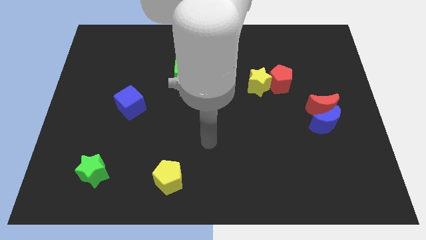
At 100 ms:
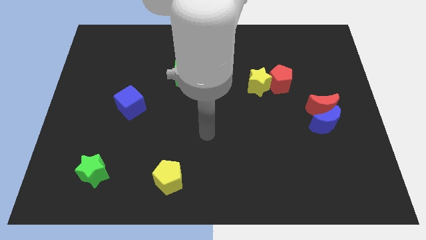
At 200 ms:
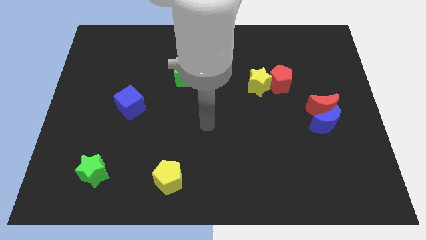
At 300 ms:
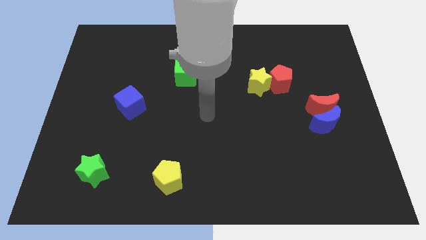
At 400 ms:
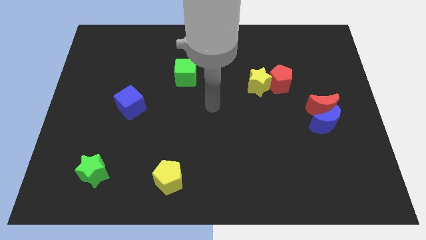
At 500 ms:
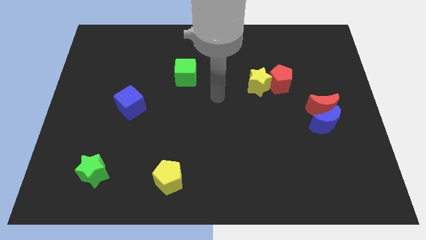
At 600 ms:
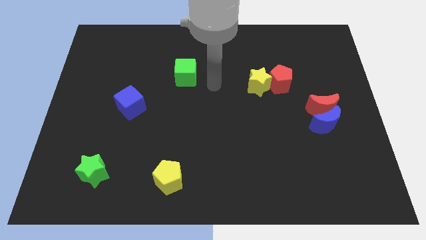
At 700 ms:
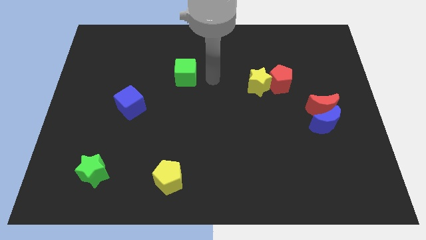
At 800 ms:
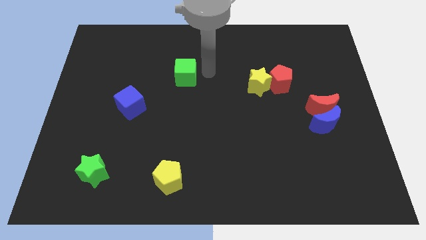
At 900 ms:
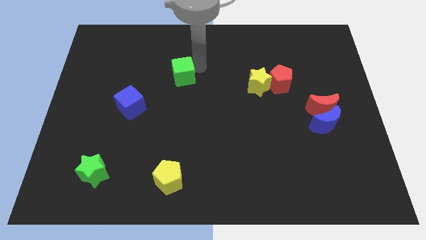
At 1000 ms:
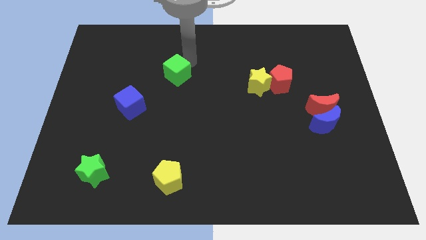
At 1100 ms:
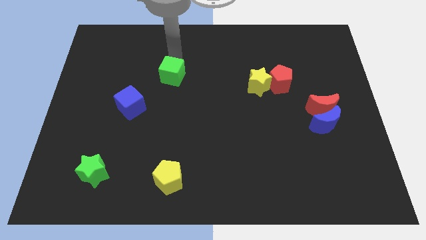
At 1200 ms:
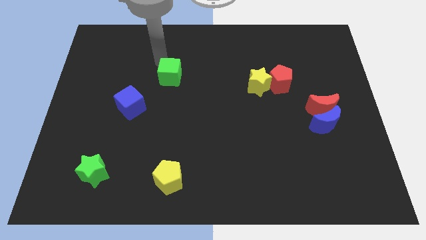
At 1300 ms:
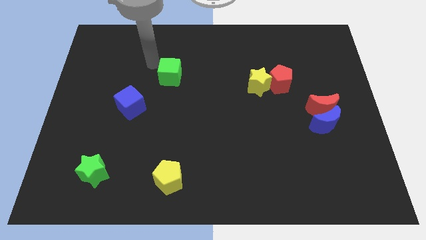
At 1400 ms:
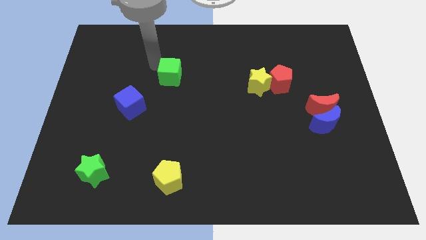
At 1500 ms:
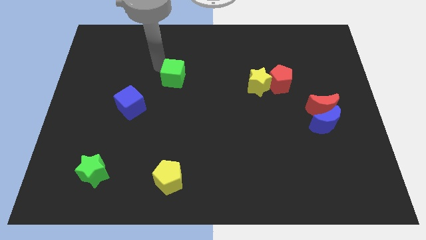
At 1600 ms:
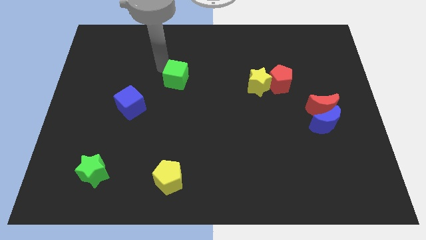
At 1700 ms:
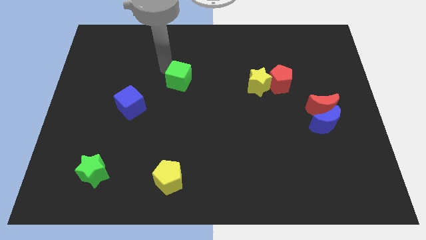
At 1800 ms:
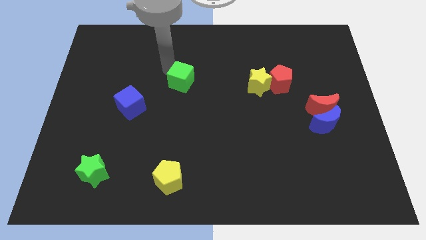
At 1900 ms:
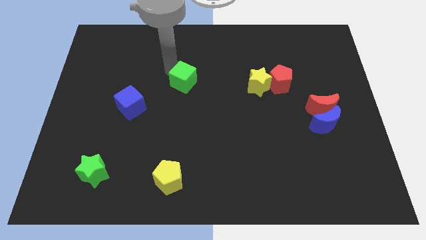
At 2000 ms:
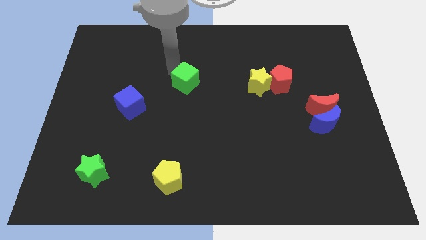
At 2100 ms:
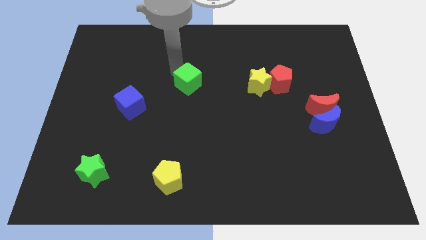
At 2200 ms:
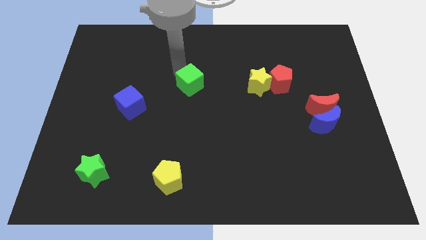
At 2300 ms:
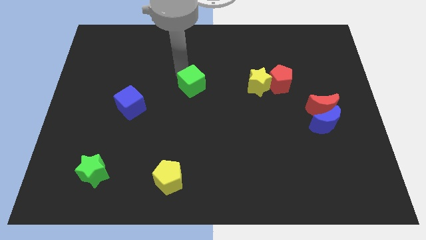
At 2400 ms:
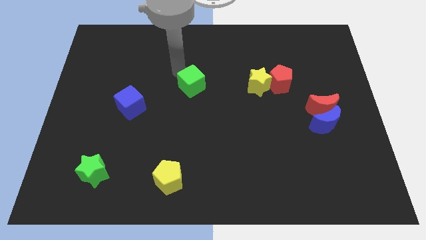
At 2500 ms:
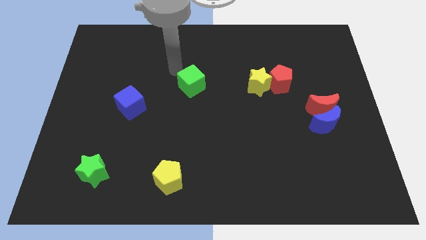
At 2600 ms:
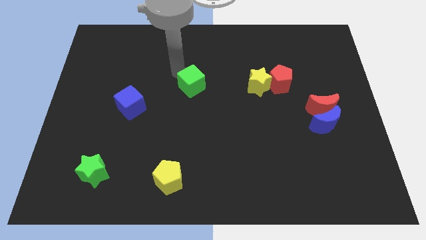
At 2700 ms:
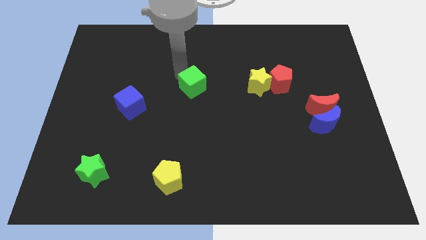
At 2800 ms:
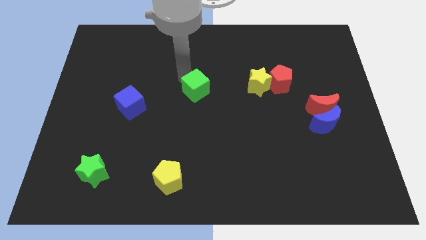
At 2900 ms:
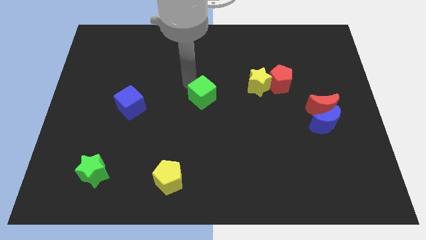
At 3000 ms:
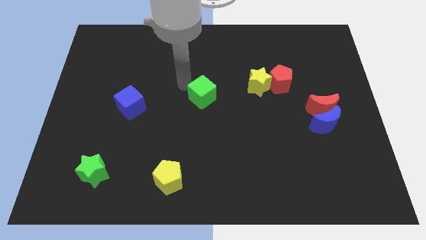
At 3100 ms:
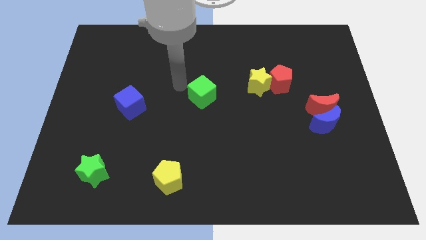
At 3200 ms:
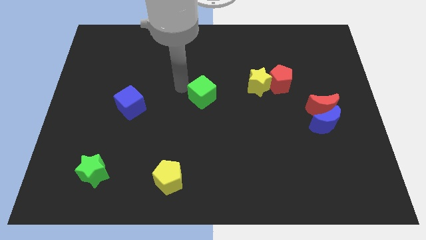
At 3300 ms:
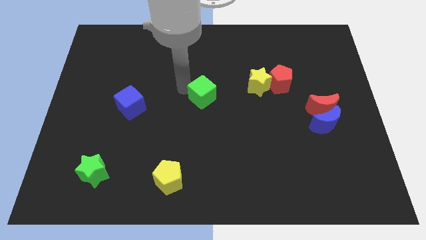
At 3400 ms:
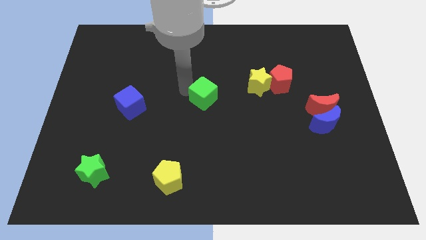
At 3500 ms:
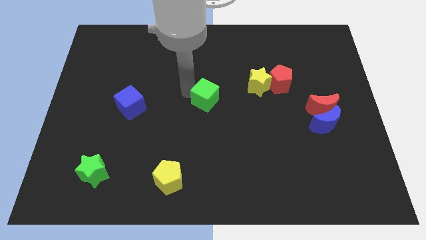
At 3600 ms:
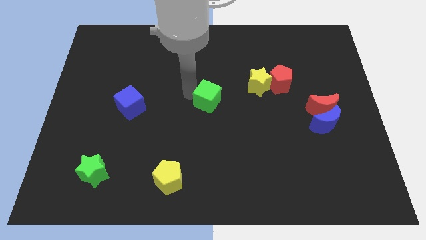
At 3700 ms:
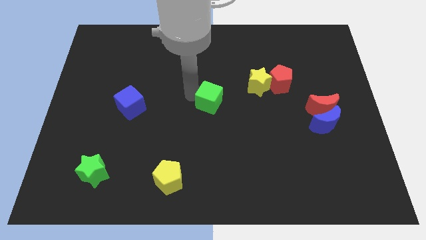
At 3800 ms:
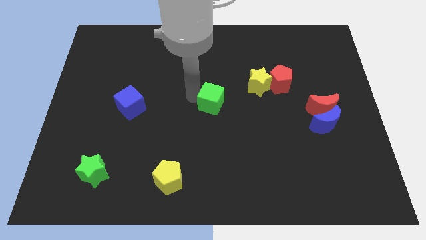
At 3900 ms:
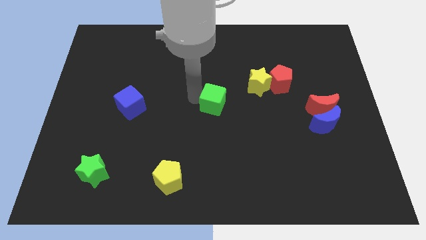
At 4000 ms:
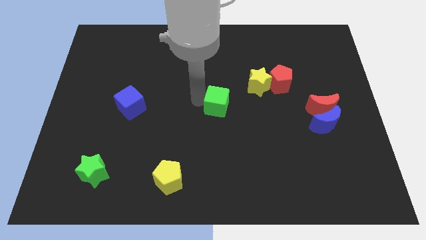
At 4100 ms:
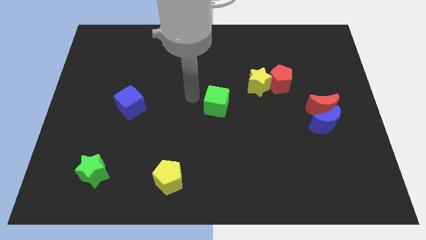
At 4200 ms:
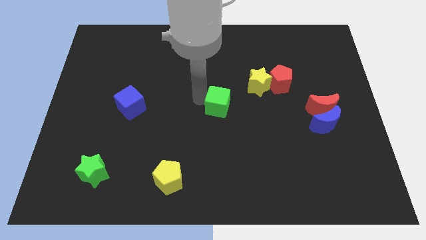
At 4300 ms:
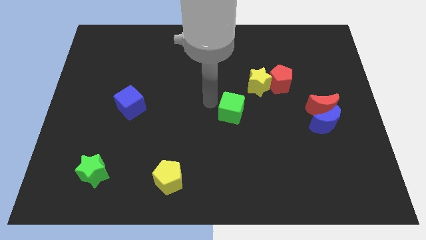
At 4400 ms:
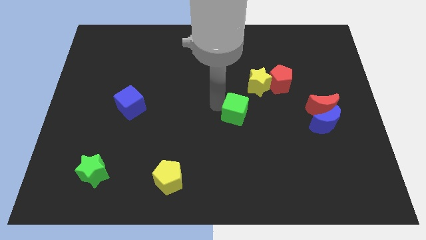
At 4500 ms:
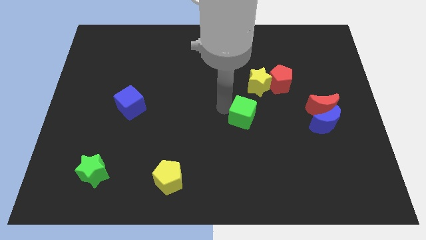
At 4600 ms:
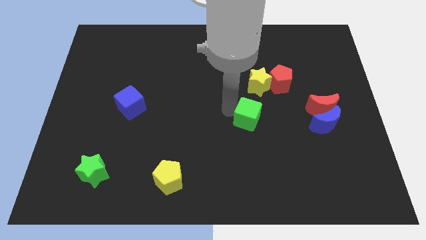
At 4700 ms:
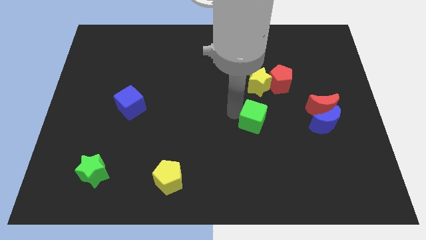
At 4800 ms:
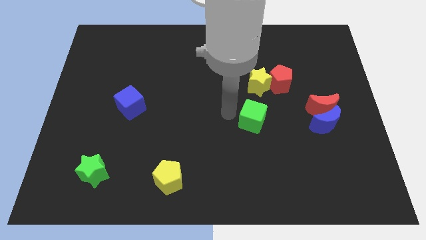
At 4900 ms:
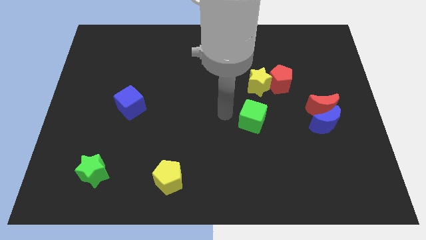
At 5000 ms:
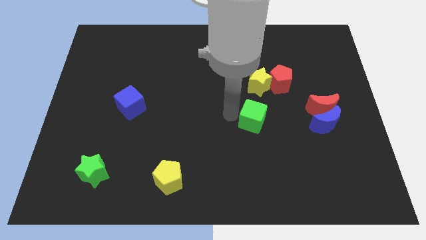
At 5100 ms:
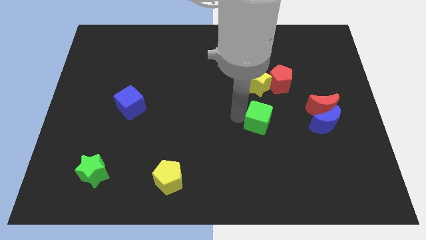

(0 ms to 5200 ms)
push the green cube left of the blue moon

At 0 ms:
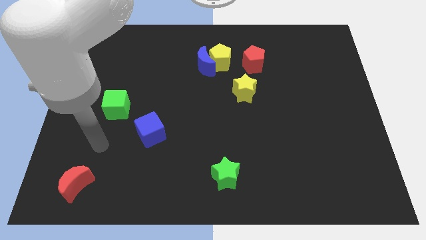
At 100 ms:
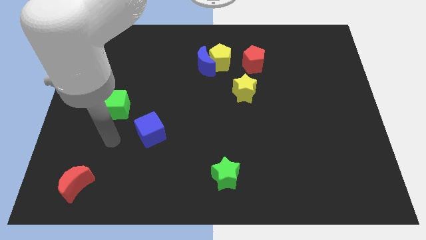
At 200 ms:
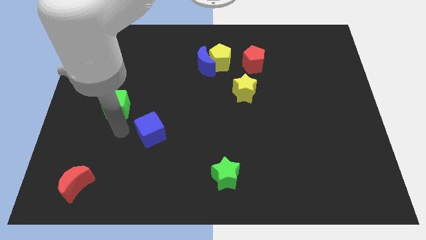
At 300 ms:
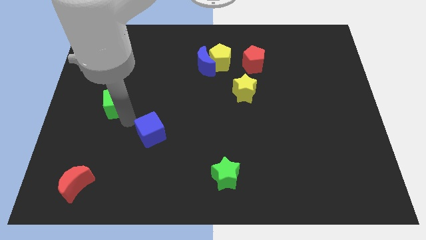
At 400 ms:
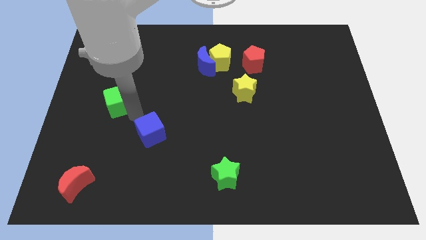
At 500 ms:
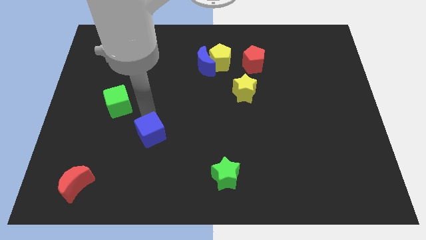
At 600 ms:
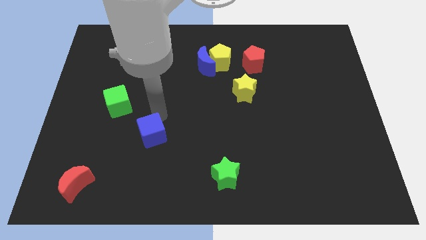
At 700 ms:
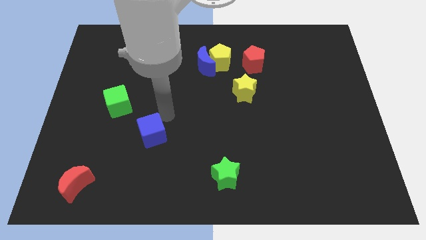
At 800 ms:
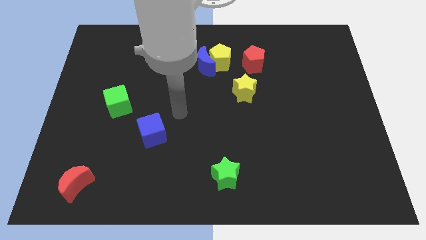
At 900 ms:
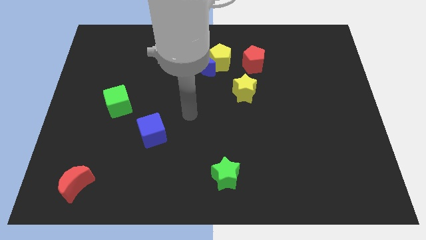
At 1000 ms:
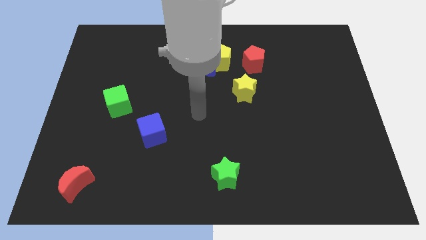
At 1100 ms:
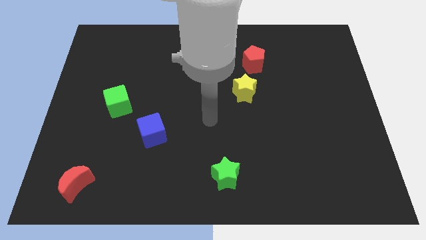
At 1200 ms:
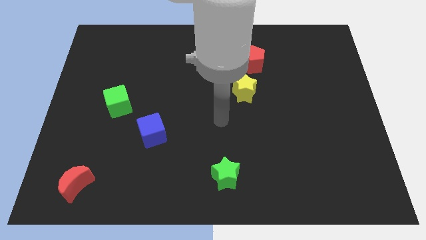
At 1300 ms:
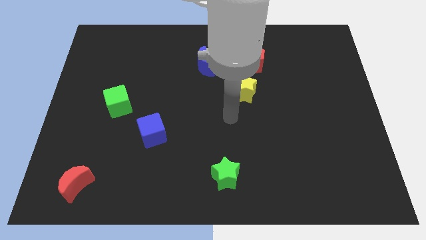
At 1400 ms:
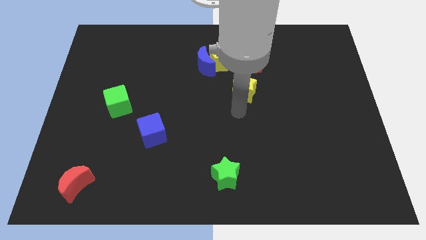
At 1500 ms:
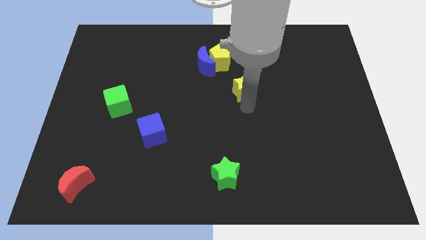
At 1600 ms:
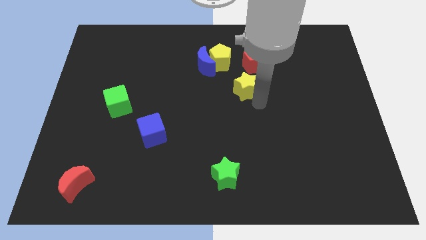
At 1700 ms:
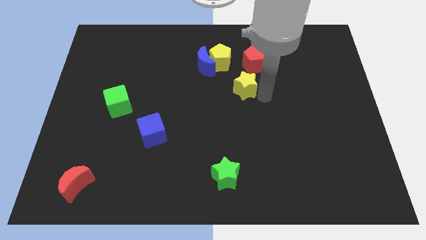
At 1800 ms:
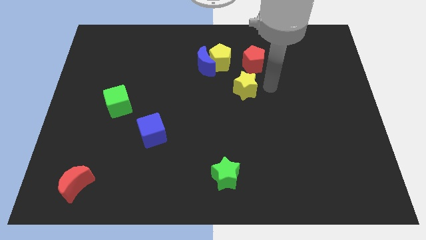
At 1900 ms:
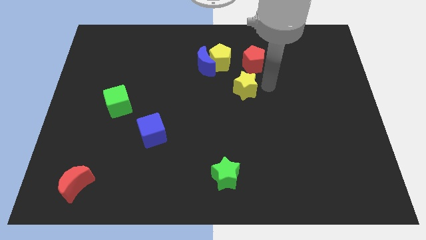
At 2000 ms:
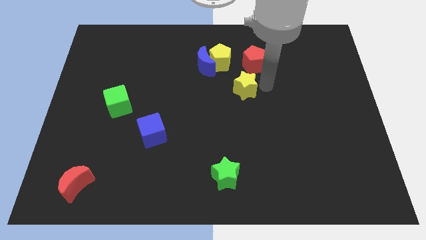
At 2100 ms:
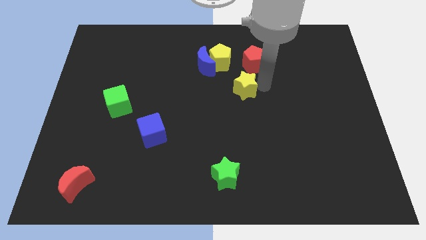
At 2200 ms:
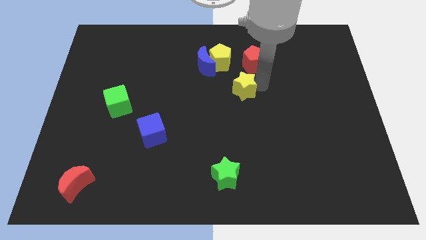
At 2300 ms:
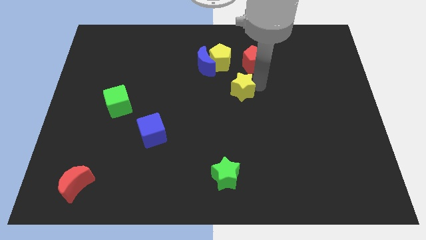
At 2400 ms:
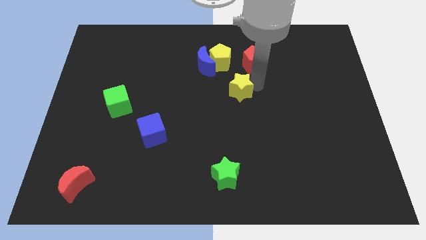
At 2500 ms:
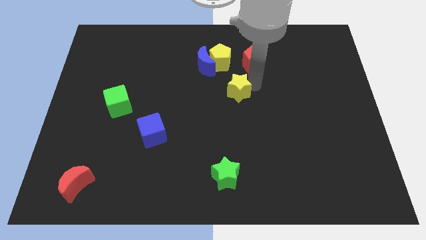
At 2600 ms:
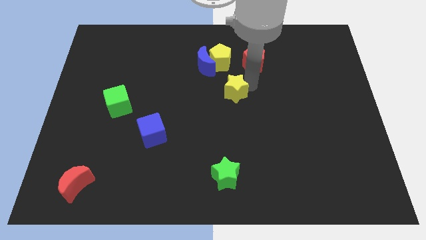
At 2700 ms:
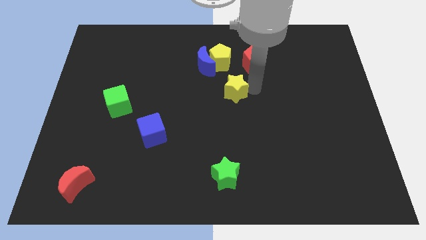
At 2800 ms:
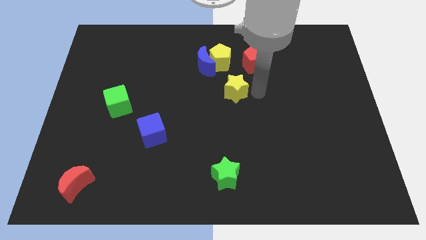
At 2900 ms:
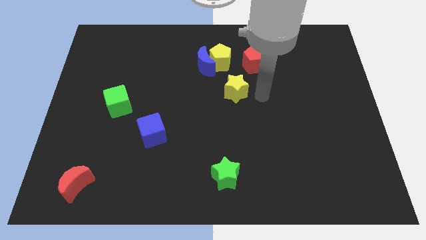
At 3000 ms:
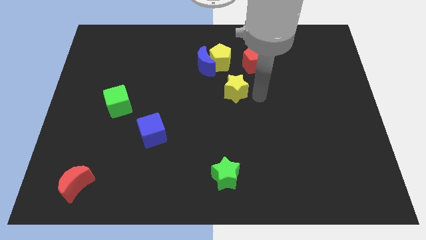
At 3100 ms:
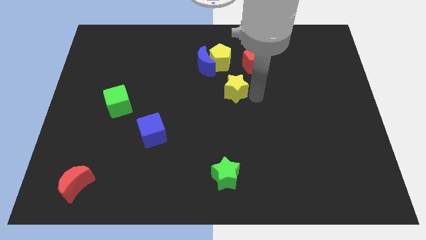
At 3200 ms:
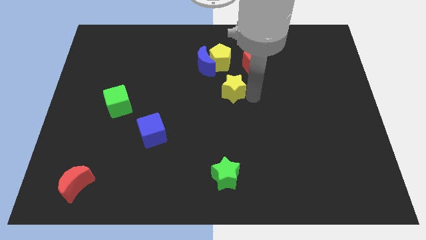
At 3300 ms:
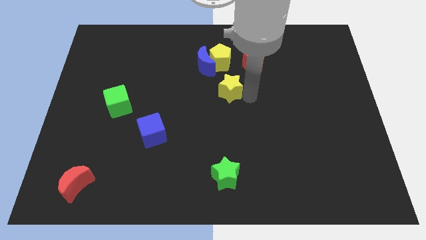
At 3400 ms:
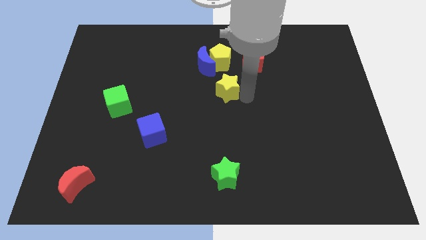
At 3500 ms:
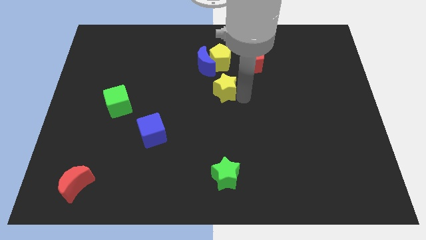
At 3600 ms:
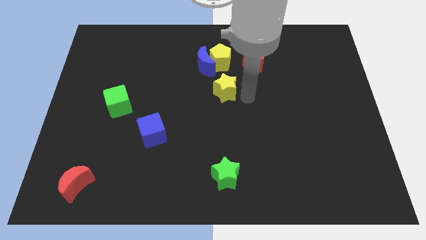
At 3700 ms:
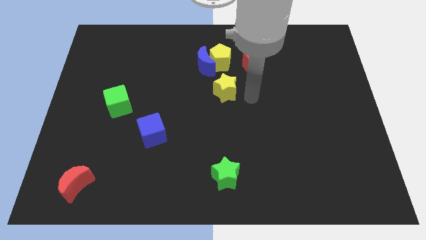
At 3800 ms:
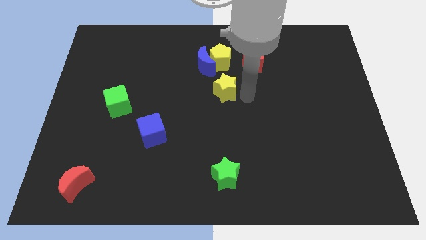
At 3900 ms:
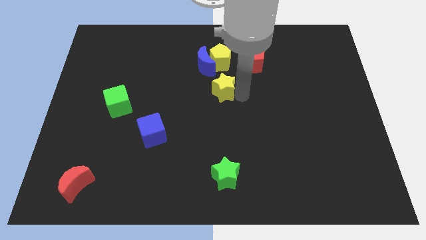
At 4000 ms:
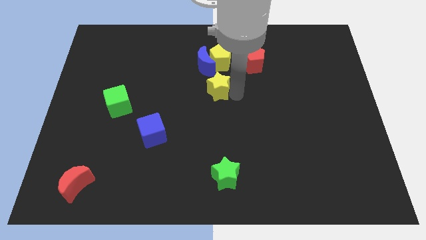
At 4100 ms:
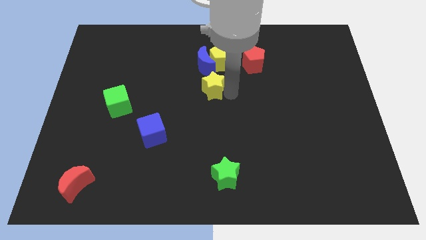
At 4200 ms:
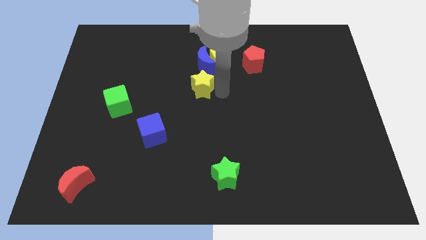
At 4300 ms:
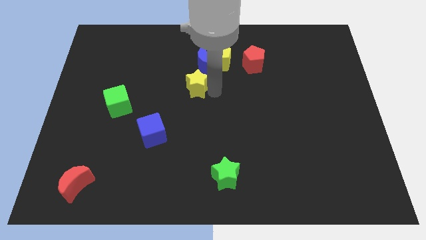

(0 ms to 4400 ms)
move the yellow star diagonally down and to the left of the blue moon
